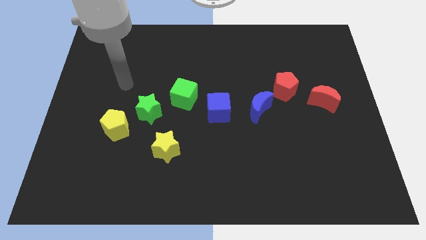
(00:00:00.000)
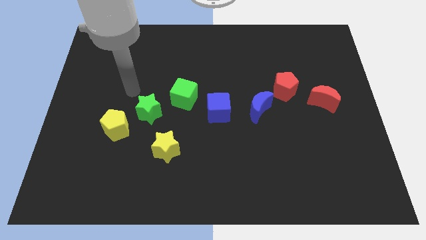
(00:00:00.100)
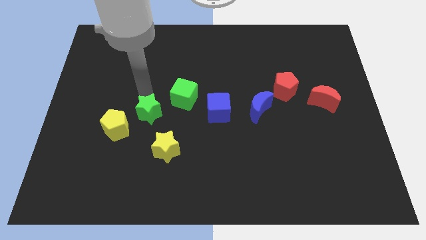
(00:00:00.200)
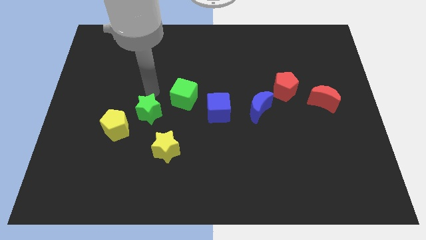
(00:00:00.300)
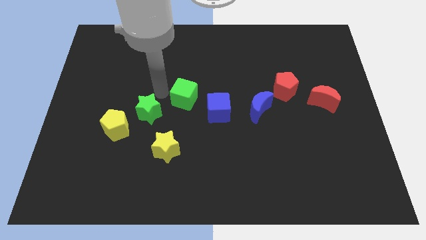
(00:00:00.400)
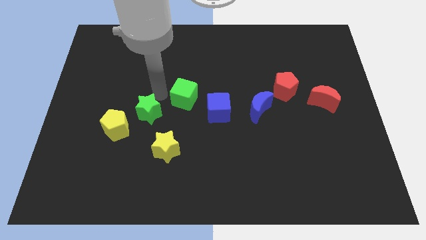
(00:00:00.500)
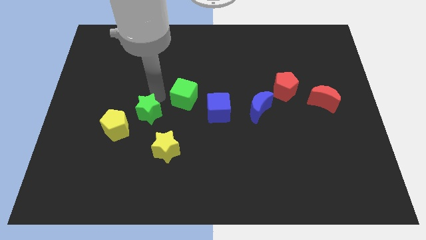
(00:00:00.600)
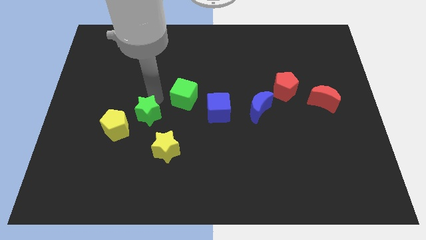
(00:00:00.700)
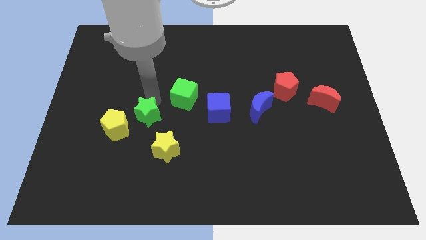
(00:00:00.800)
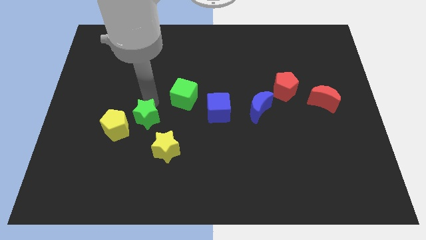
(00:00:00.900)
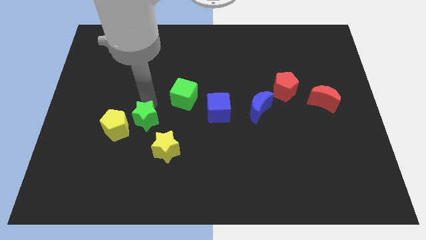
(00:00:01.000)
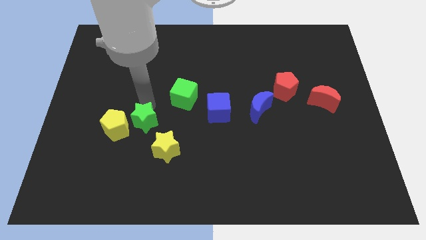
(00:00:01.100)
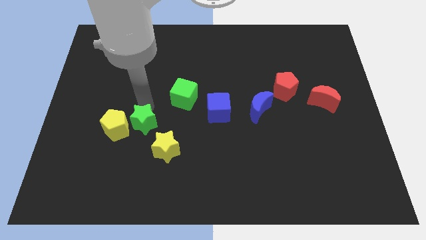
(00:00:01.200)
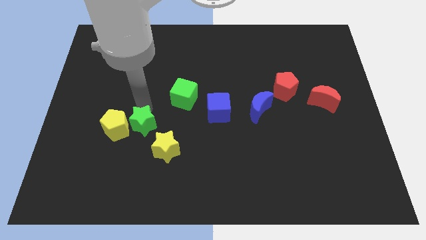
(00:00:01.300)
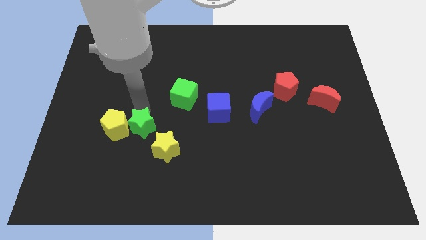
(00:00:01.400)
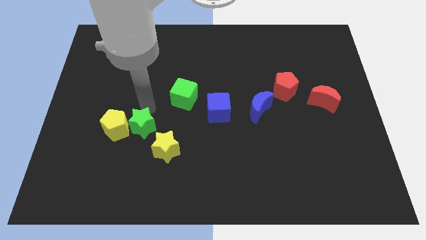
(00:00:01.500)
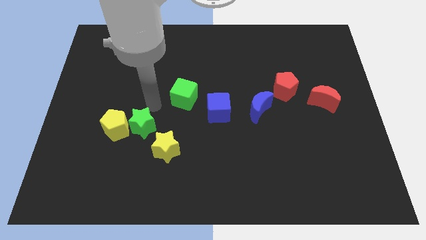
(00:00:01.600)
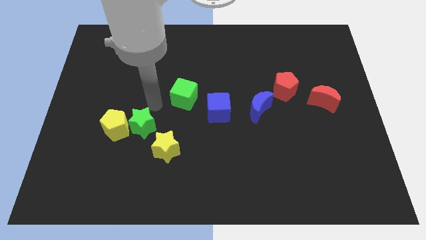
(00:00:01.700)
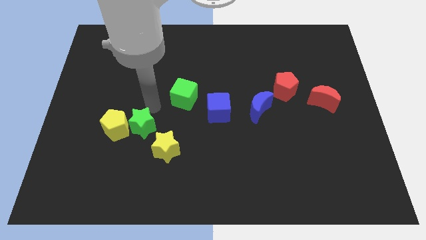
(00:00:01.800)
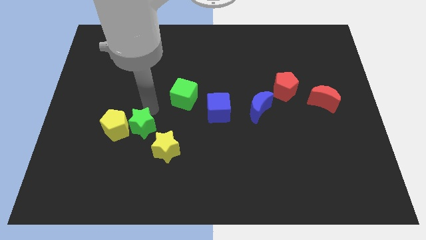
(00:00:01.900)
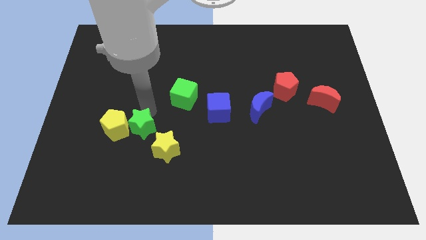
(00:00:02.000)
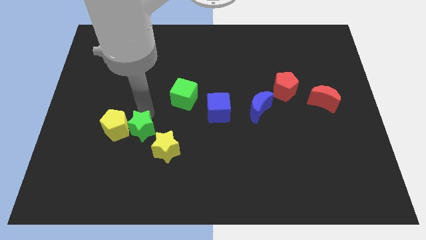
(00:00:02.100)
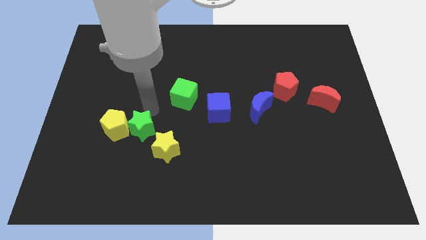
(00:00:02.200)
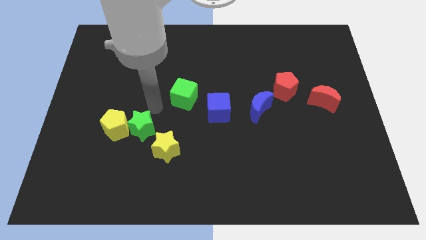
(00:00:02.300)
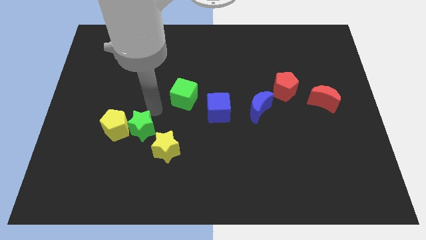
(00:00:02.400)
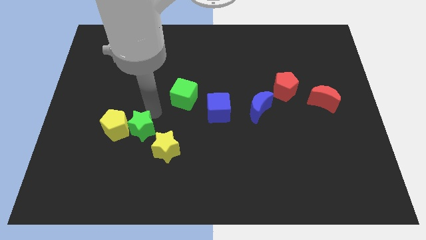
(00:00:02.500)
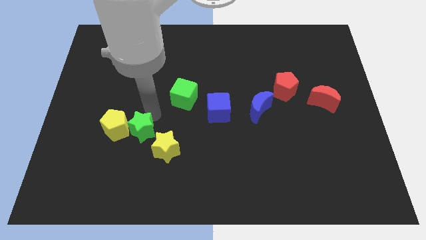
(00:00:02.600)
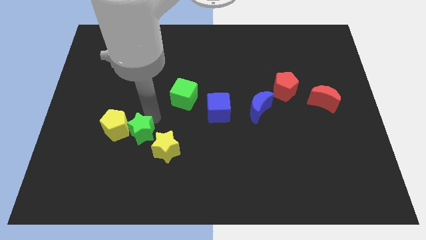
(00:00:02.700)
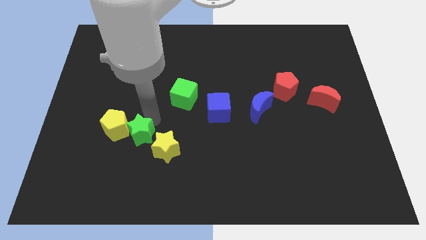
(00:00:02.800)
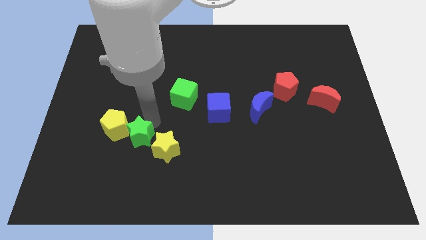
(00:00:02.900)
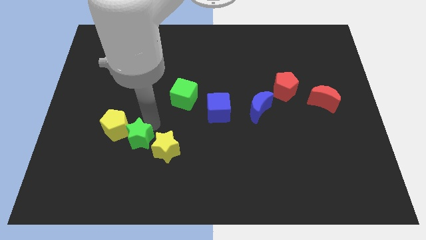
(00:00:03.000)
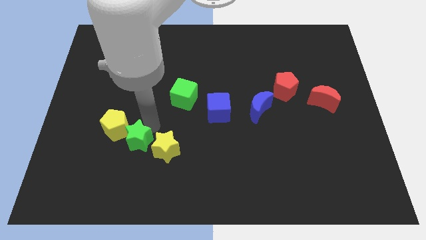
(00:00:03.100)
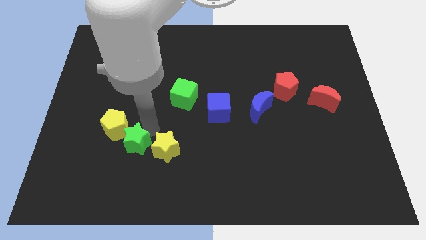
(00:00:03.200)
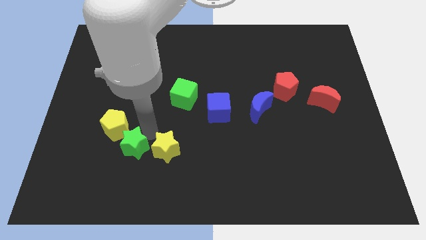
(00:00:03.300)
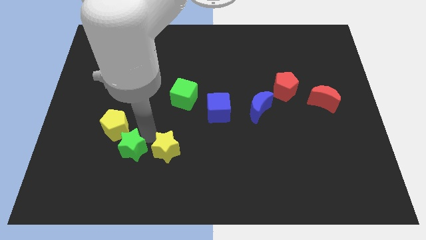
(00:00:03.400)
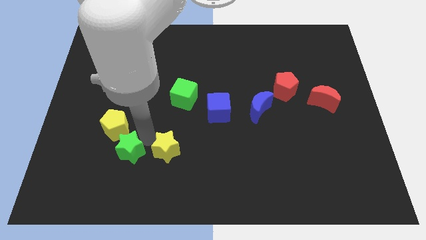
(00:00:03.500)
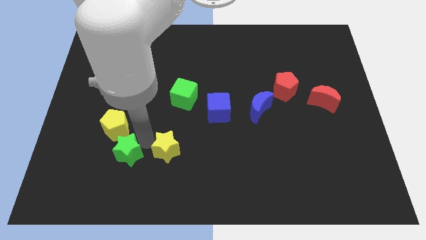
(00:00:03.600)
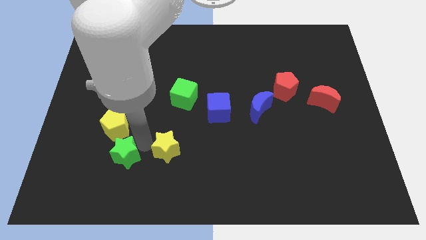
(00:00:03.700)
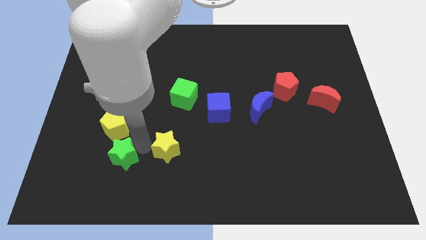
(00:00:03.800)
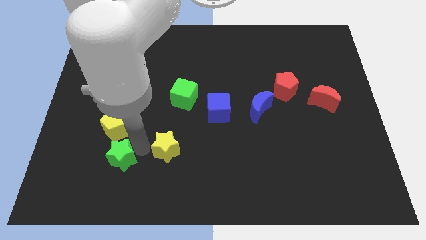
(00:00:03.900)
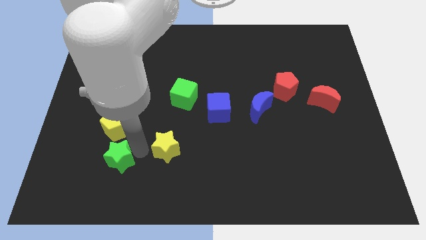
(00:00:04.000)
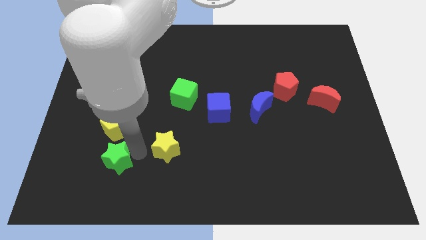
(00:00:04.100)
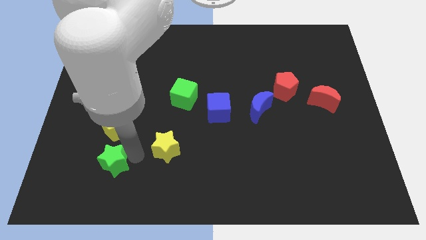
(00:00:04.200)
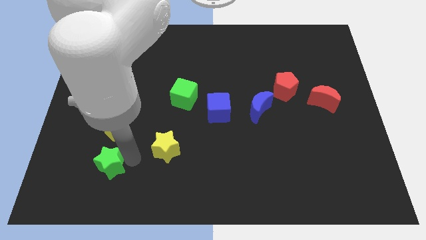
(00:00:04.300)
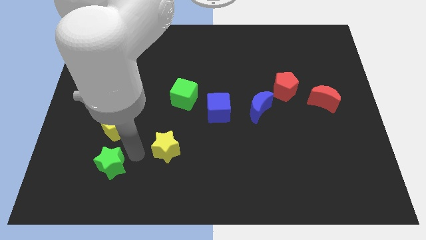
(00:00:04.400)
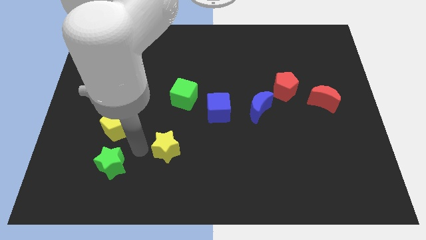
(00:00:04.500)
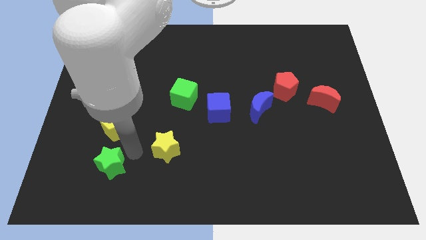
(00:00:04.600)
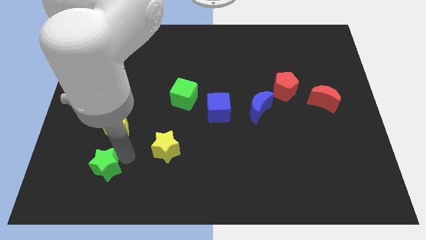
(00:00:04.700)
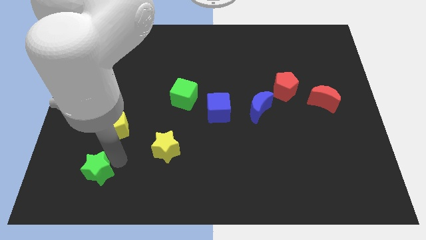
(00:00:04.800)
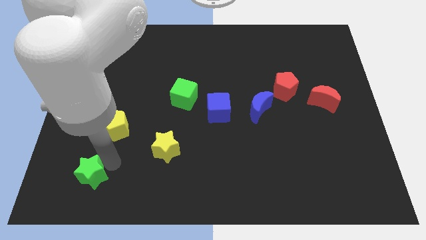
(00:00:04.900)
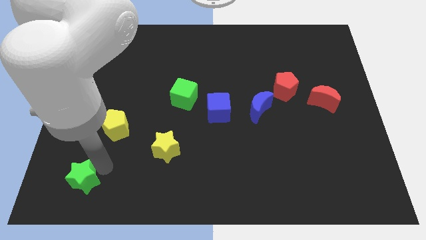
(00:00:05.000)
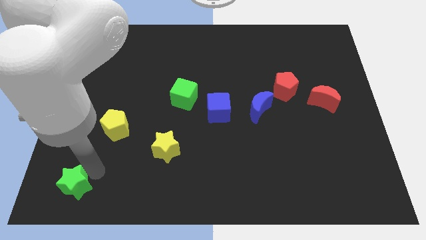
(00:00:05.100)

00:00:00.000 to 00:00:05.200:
put the green star to the lower left corner

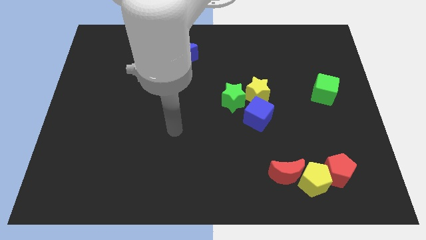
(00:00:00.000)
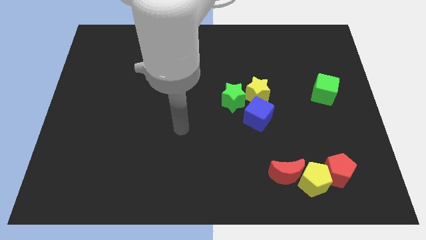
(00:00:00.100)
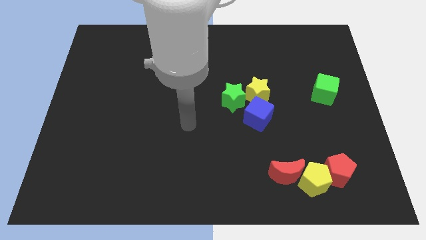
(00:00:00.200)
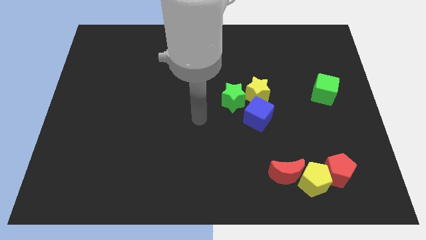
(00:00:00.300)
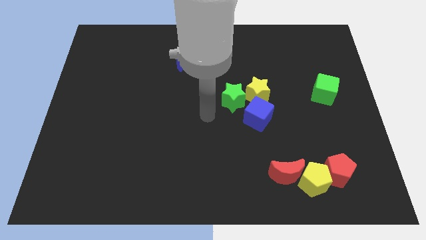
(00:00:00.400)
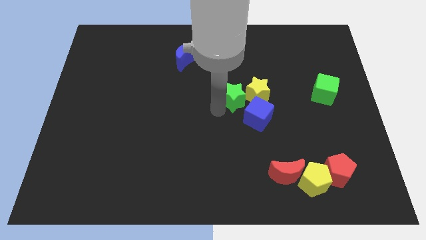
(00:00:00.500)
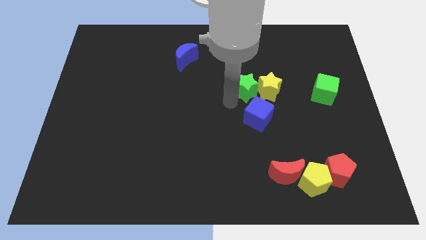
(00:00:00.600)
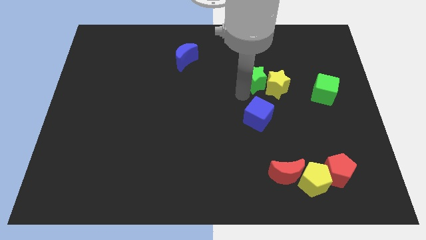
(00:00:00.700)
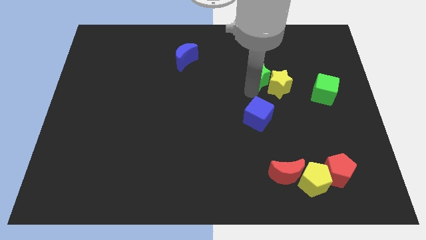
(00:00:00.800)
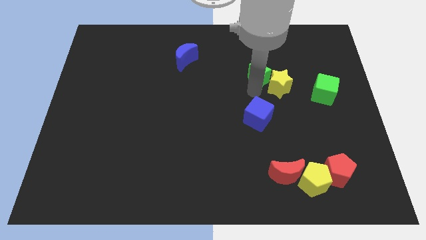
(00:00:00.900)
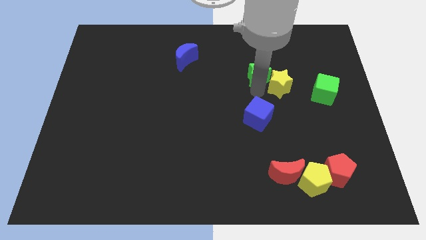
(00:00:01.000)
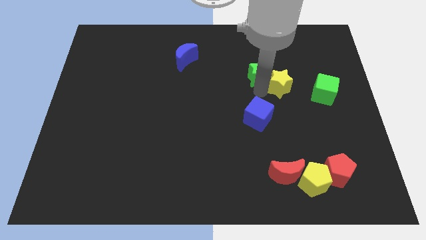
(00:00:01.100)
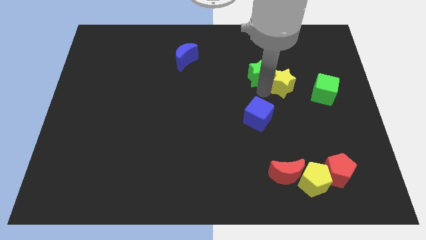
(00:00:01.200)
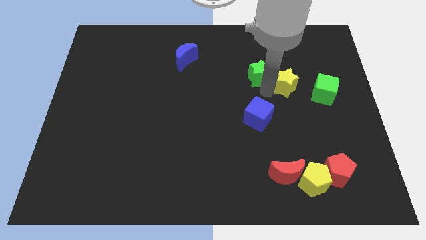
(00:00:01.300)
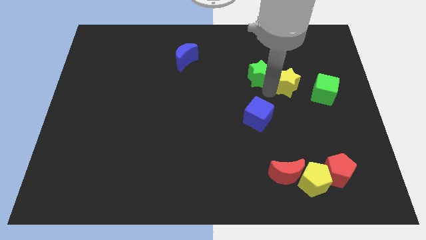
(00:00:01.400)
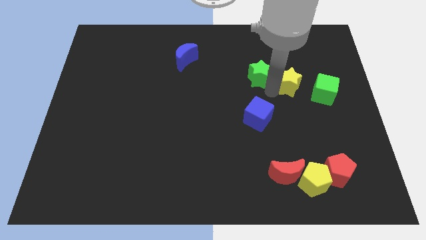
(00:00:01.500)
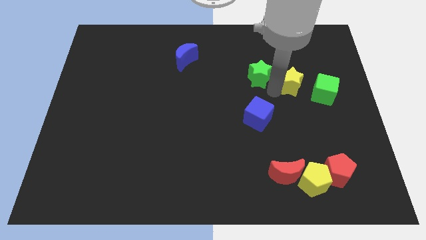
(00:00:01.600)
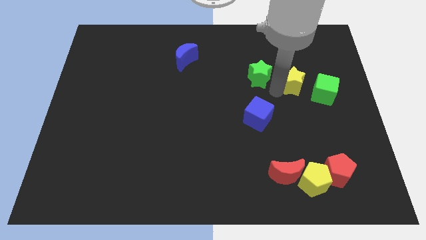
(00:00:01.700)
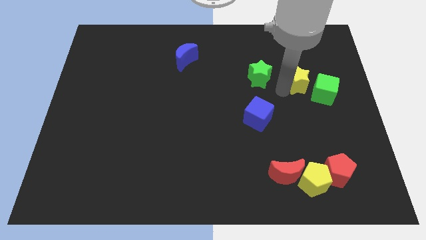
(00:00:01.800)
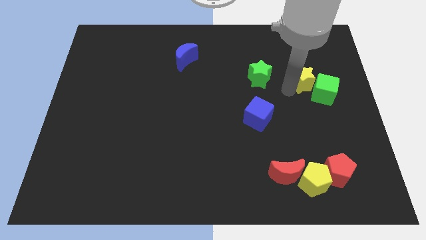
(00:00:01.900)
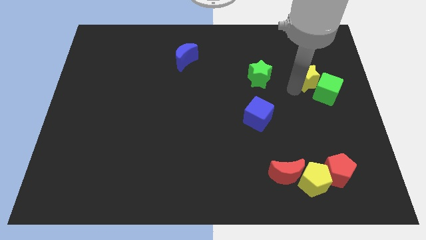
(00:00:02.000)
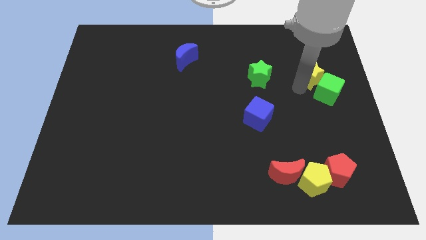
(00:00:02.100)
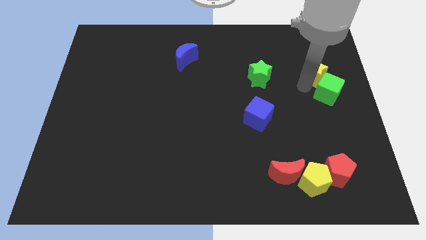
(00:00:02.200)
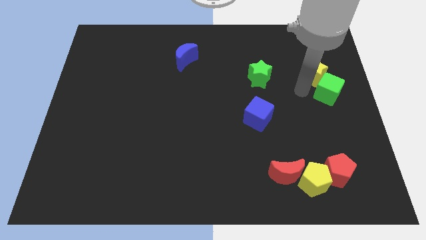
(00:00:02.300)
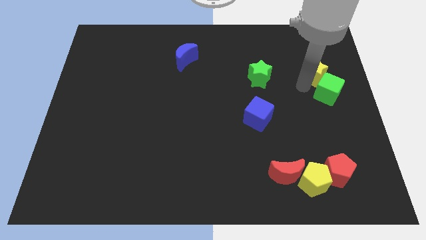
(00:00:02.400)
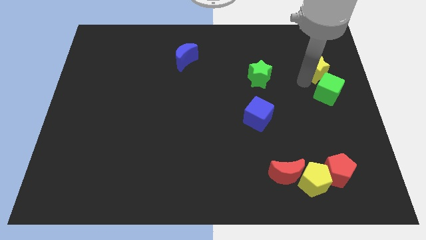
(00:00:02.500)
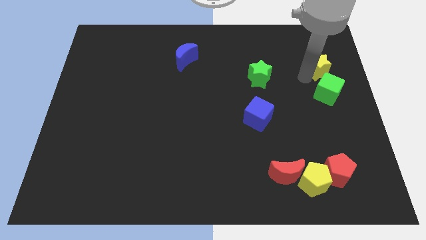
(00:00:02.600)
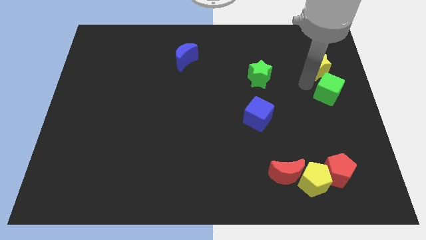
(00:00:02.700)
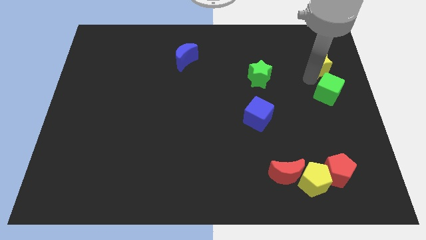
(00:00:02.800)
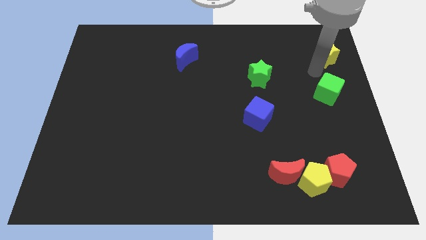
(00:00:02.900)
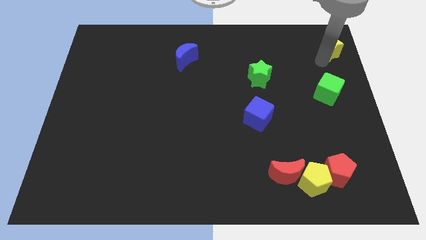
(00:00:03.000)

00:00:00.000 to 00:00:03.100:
move the yellow star to the upper right corner
